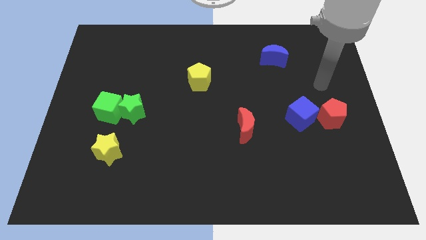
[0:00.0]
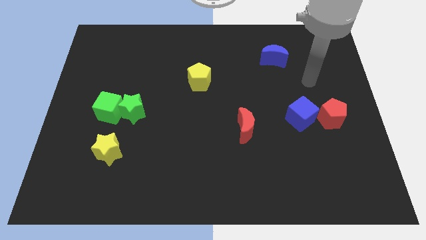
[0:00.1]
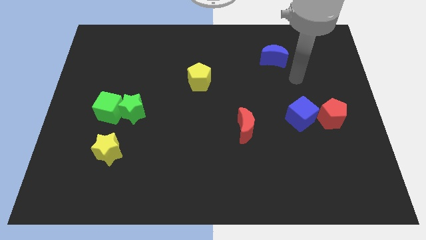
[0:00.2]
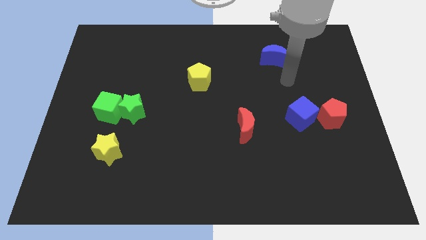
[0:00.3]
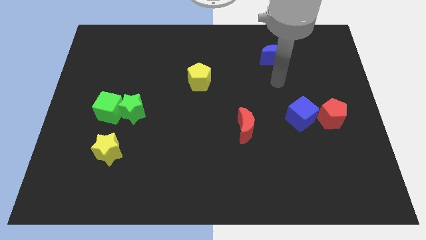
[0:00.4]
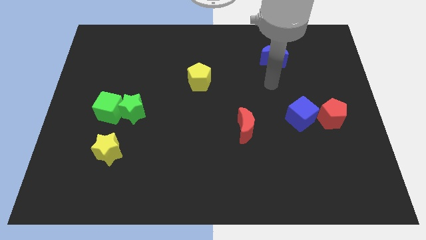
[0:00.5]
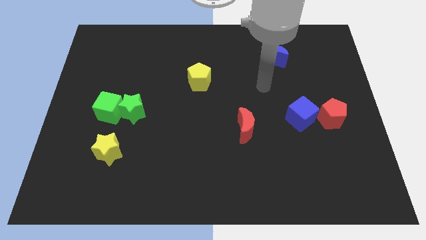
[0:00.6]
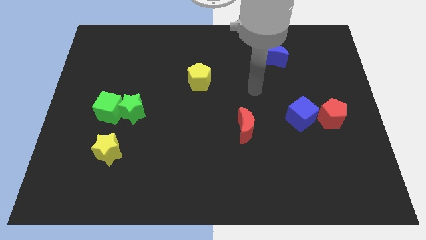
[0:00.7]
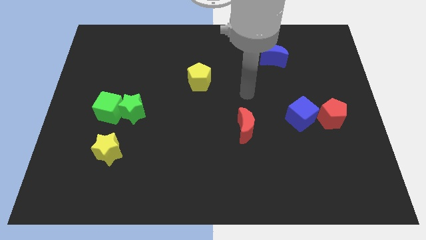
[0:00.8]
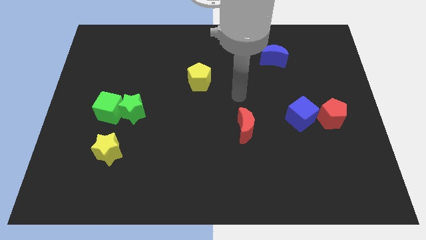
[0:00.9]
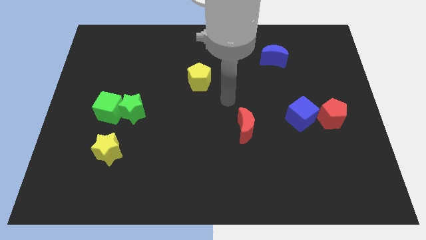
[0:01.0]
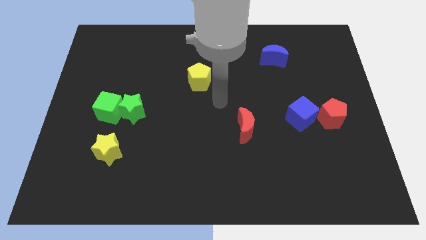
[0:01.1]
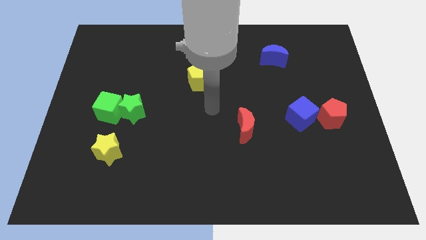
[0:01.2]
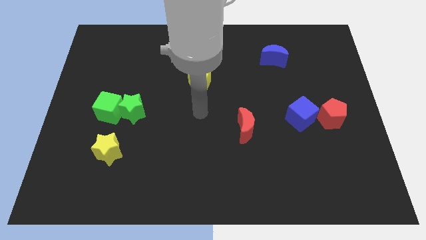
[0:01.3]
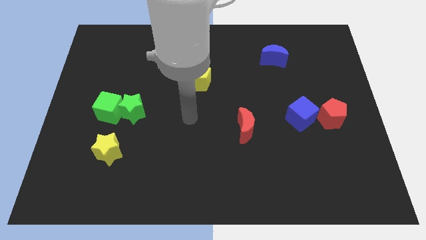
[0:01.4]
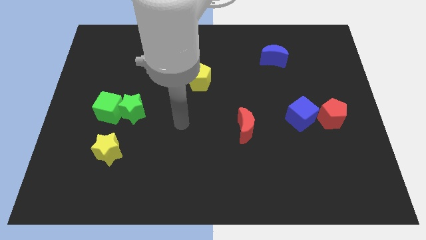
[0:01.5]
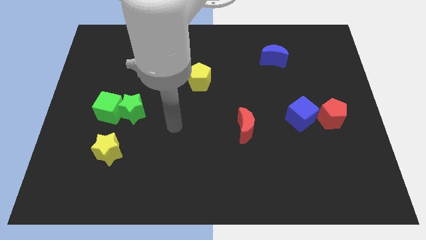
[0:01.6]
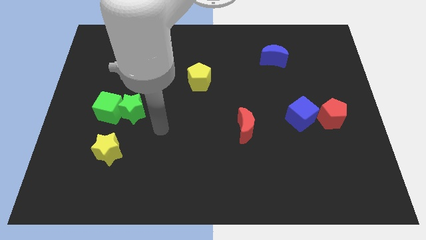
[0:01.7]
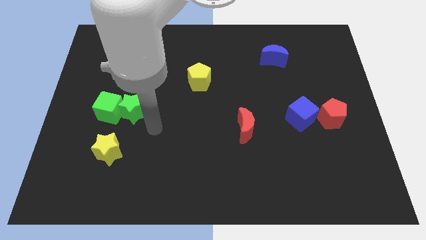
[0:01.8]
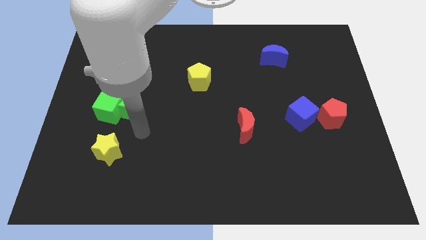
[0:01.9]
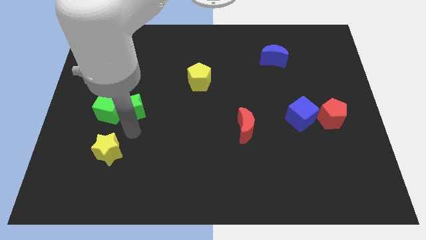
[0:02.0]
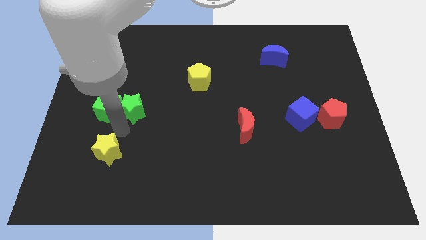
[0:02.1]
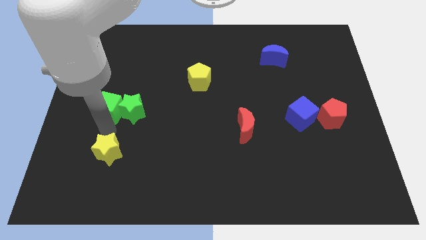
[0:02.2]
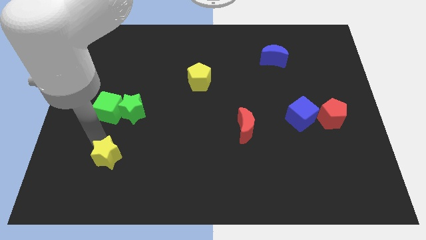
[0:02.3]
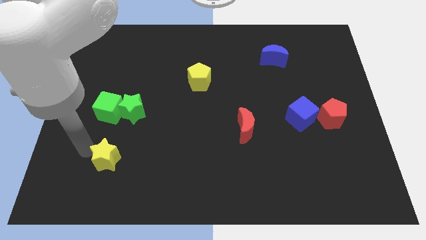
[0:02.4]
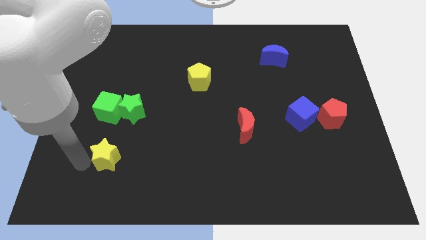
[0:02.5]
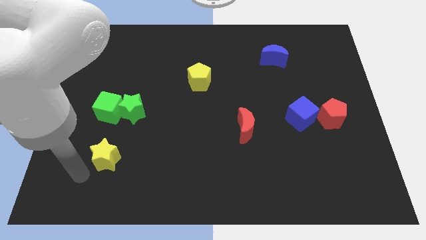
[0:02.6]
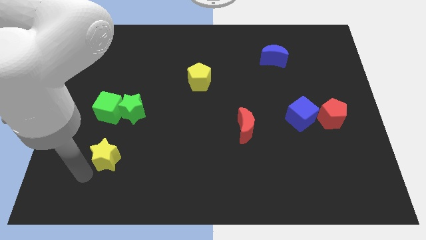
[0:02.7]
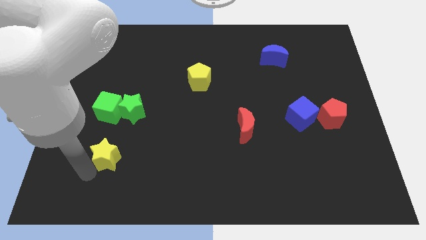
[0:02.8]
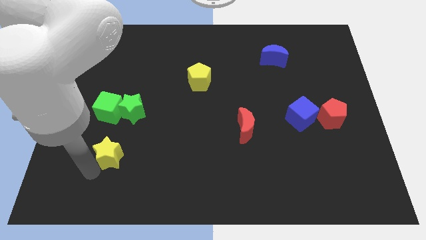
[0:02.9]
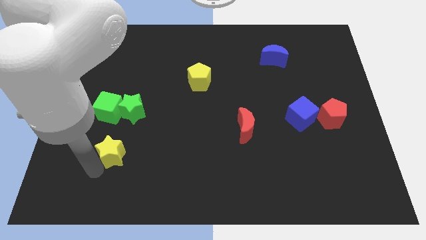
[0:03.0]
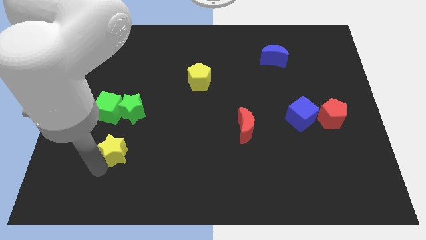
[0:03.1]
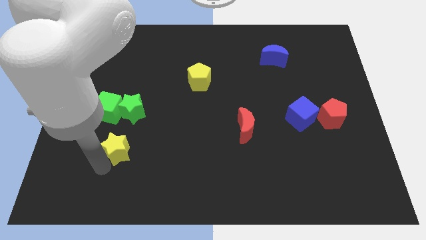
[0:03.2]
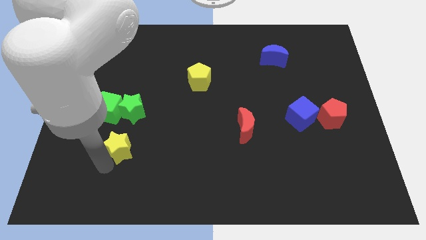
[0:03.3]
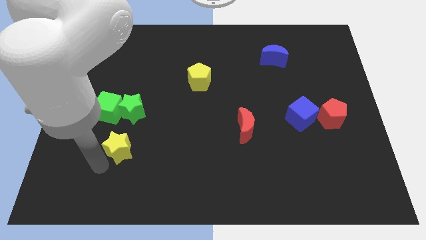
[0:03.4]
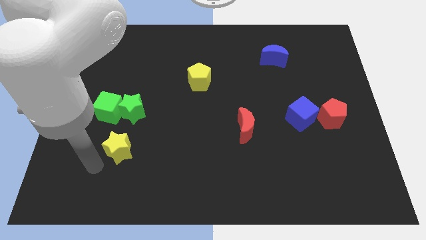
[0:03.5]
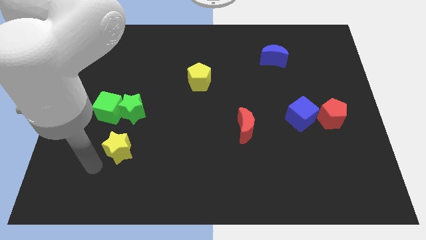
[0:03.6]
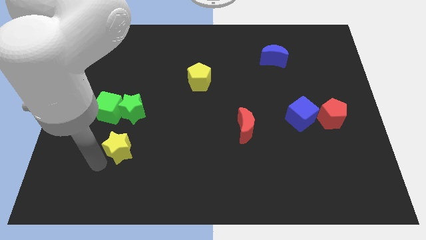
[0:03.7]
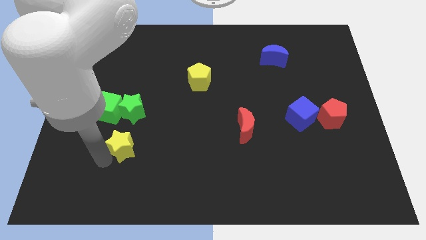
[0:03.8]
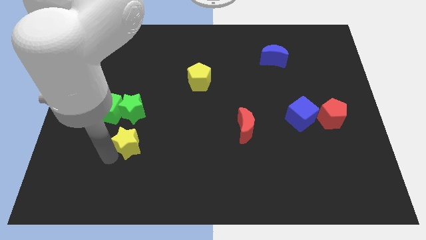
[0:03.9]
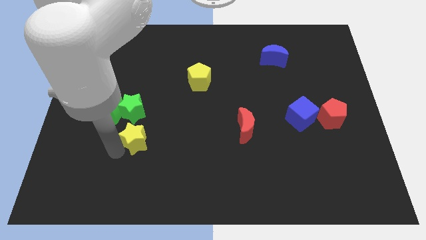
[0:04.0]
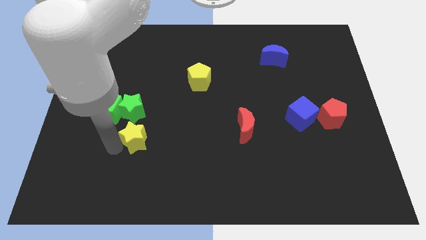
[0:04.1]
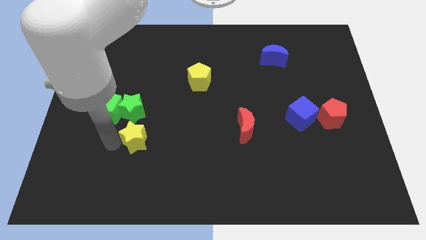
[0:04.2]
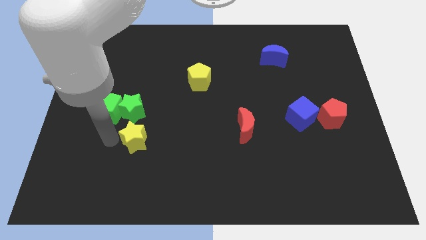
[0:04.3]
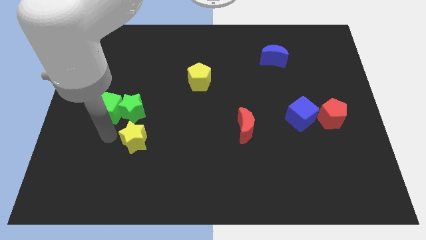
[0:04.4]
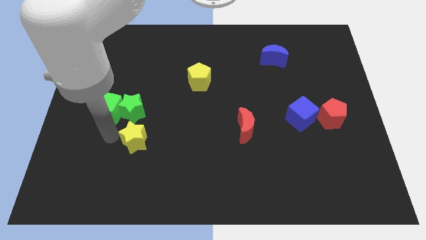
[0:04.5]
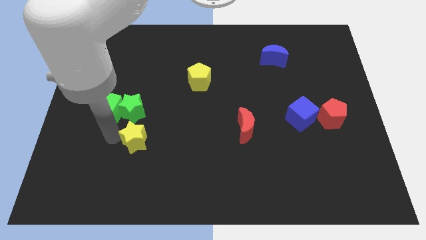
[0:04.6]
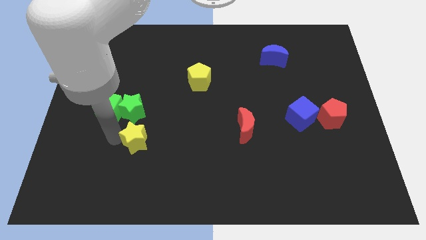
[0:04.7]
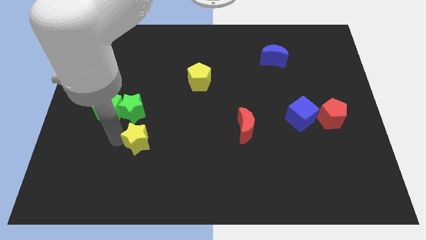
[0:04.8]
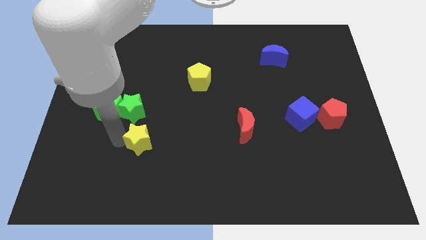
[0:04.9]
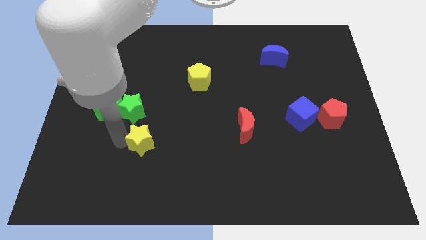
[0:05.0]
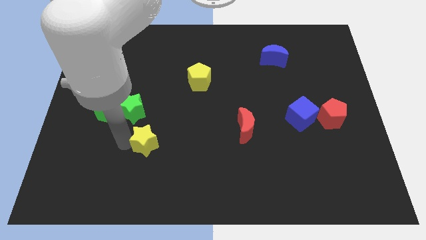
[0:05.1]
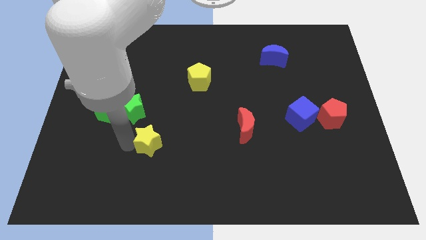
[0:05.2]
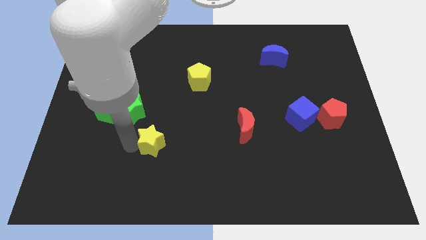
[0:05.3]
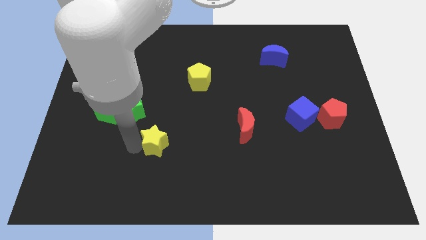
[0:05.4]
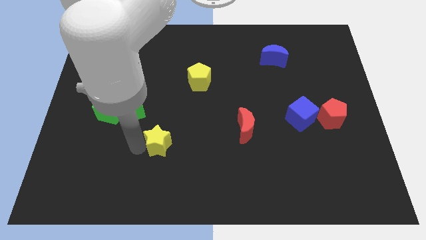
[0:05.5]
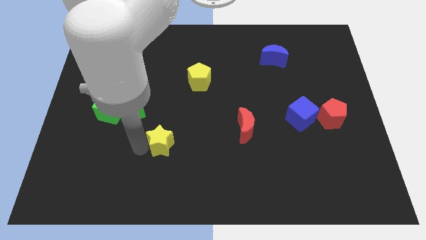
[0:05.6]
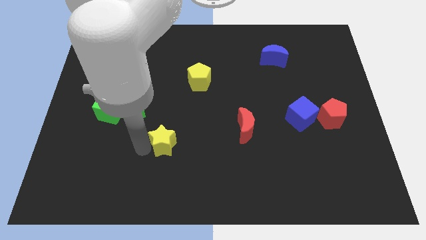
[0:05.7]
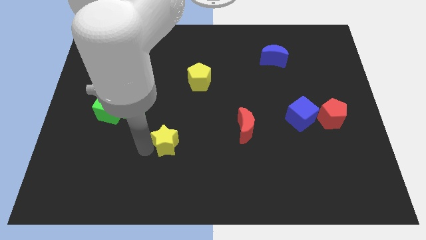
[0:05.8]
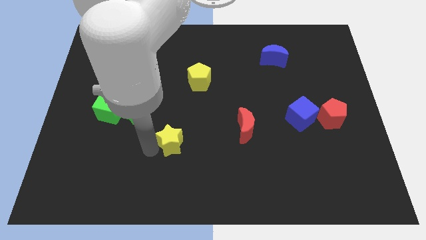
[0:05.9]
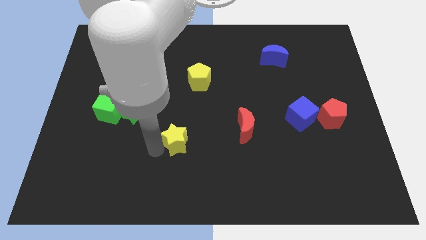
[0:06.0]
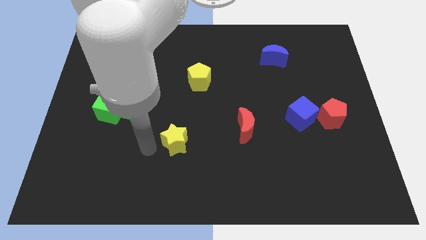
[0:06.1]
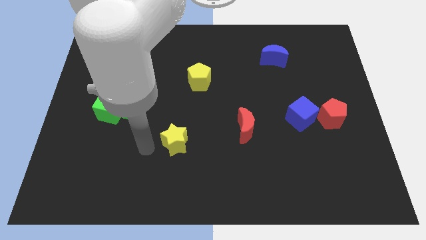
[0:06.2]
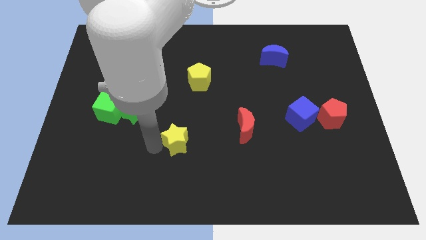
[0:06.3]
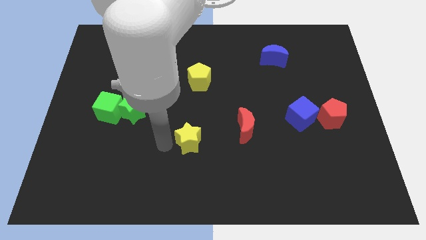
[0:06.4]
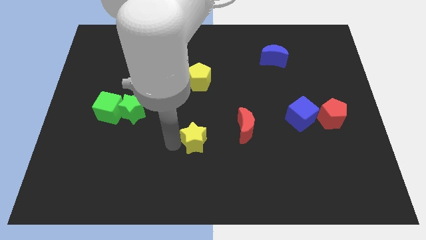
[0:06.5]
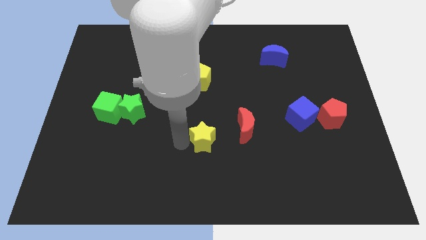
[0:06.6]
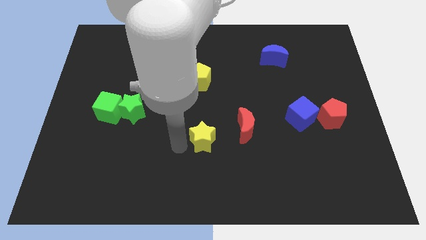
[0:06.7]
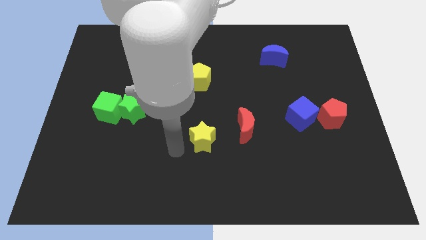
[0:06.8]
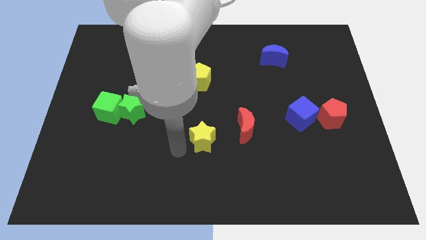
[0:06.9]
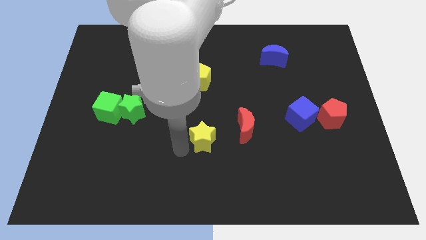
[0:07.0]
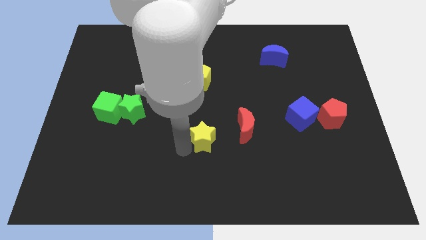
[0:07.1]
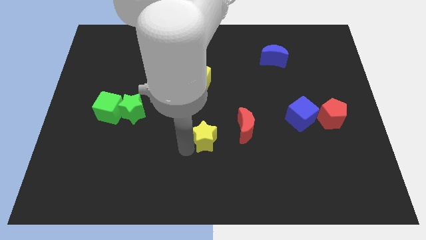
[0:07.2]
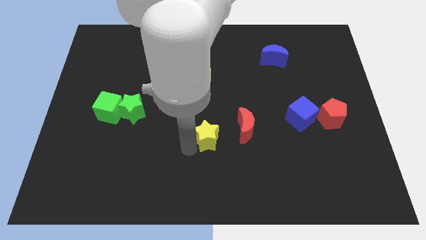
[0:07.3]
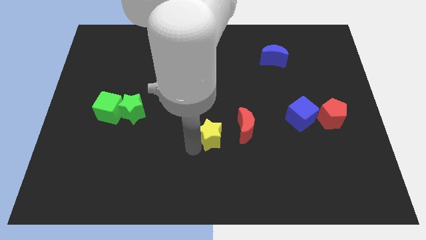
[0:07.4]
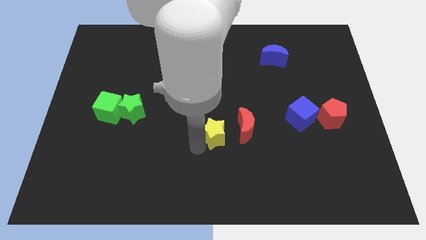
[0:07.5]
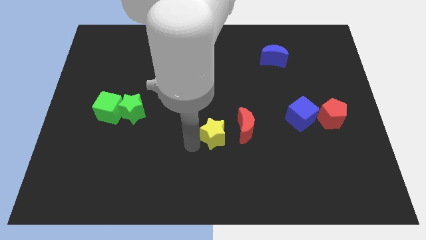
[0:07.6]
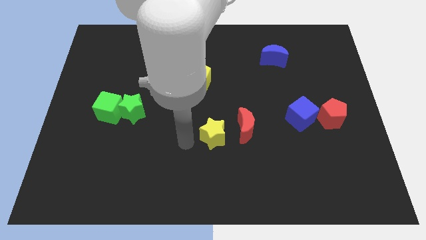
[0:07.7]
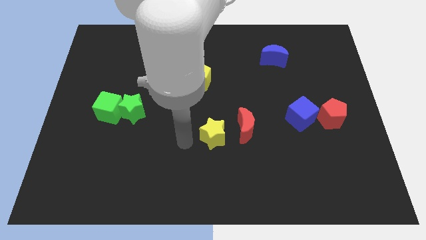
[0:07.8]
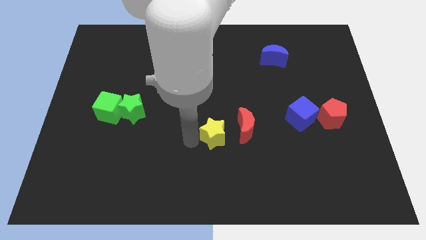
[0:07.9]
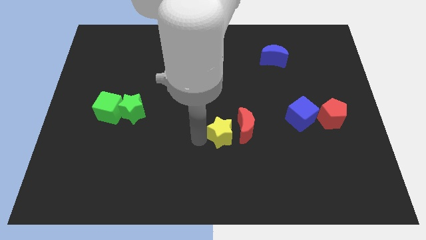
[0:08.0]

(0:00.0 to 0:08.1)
move the yellow star next to the red moon
